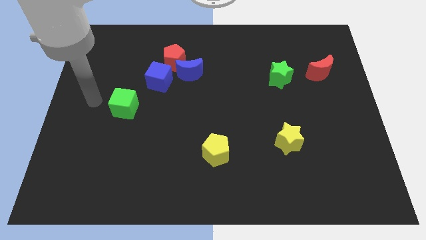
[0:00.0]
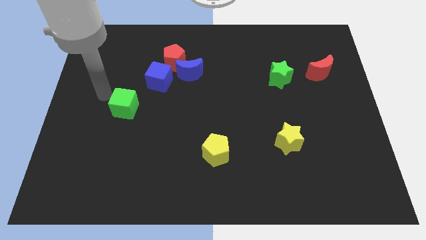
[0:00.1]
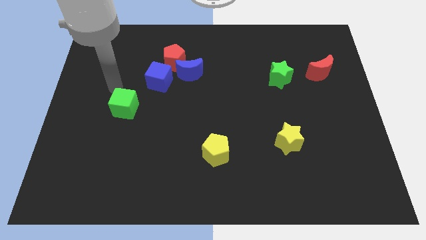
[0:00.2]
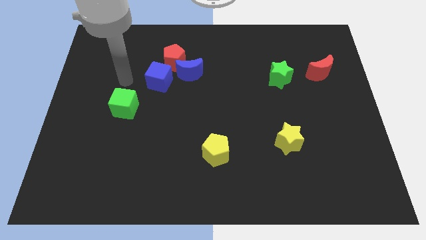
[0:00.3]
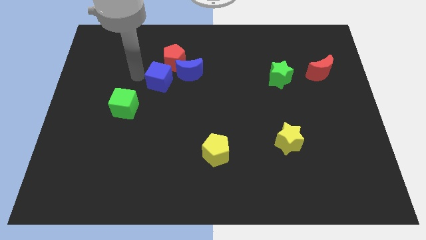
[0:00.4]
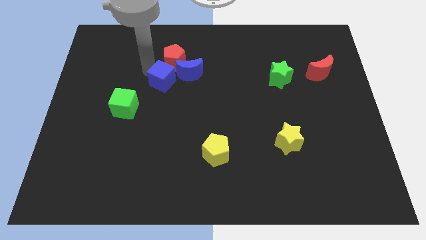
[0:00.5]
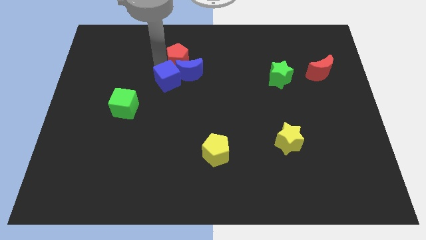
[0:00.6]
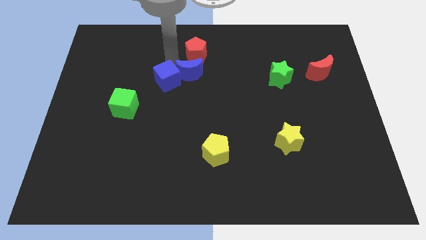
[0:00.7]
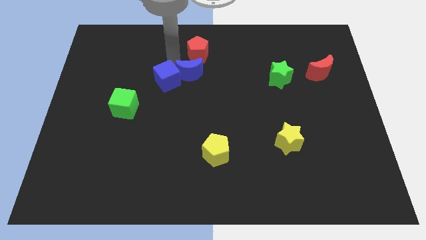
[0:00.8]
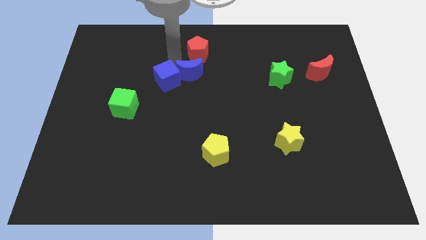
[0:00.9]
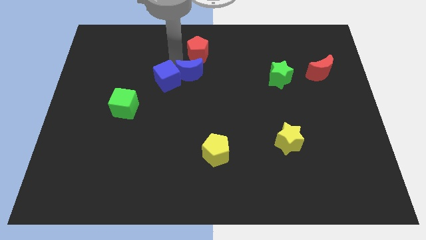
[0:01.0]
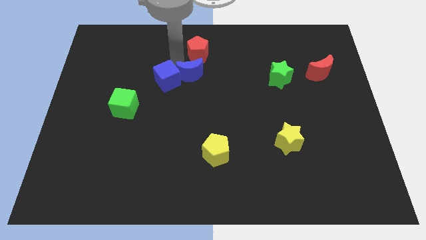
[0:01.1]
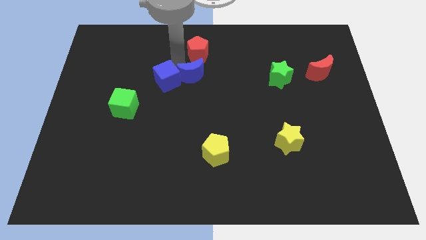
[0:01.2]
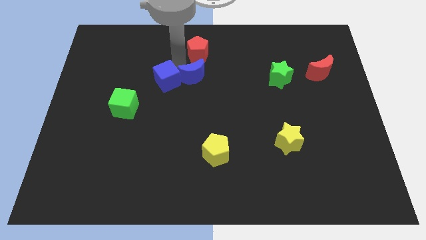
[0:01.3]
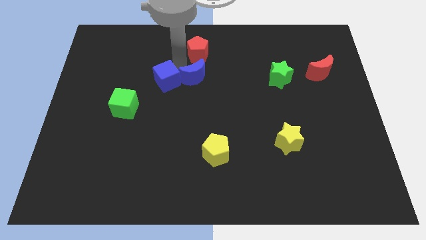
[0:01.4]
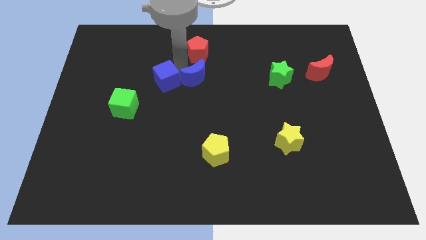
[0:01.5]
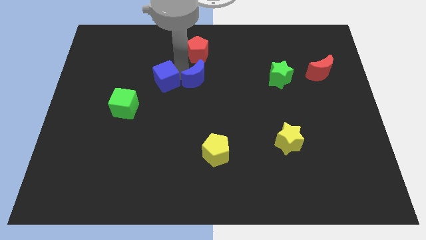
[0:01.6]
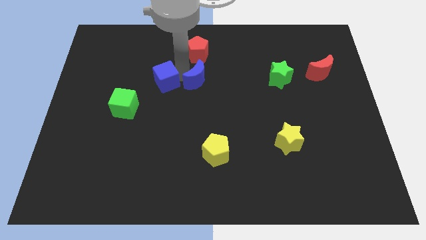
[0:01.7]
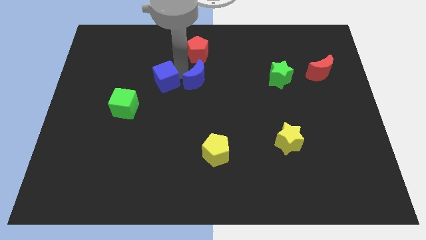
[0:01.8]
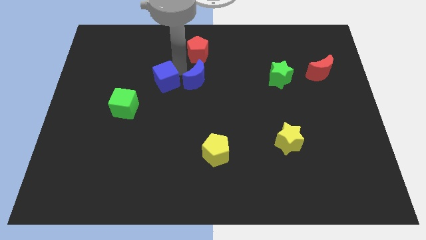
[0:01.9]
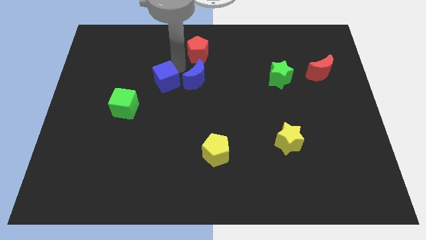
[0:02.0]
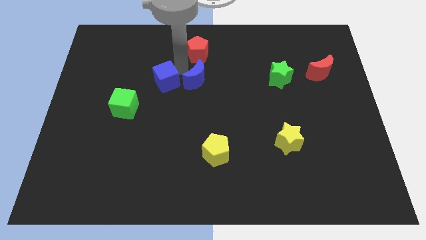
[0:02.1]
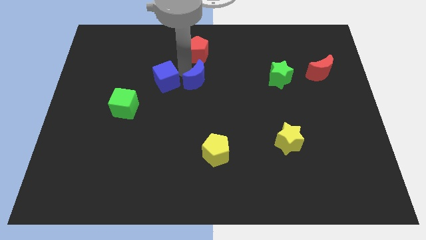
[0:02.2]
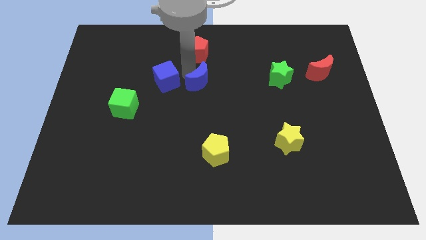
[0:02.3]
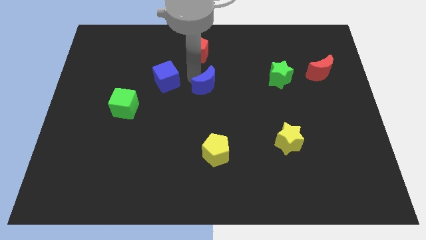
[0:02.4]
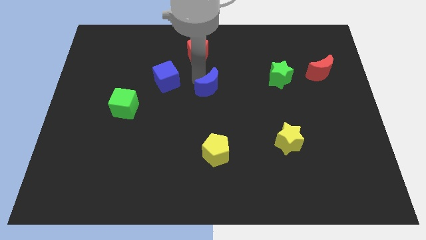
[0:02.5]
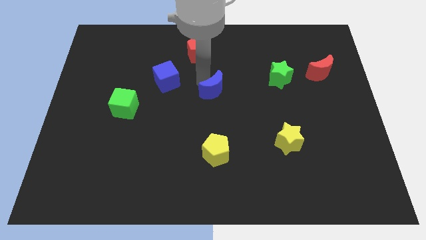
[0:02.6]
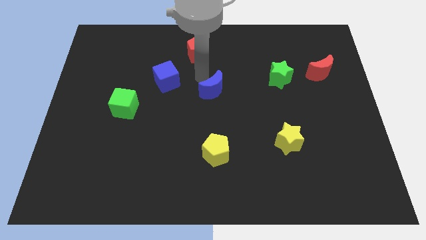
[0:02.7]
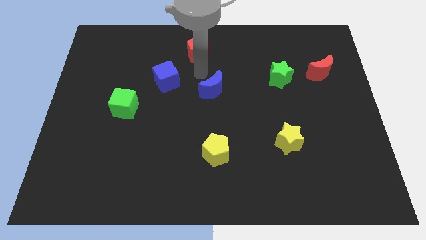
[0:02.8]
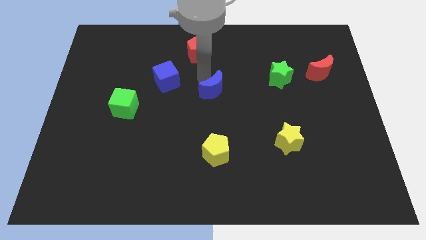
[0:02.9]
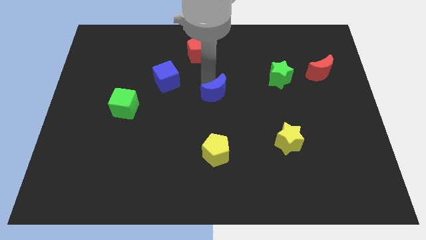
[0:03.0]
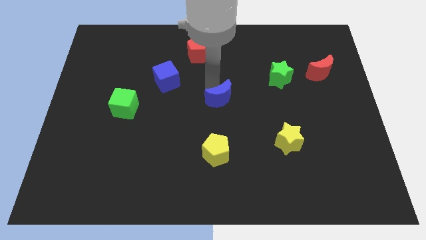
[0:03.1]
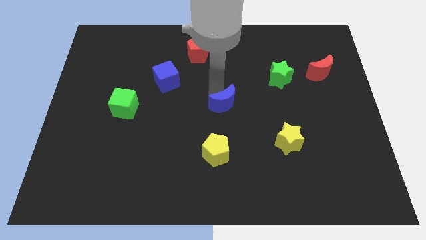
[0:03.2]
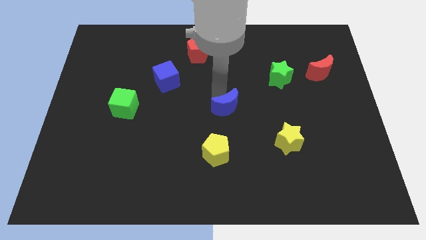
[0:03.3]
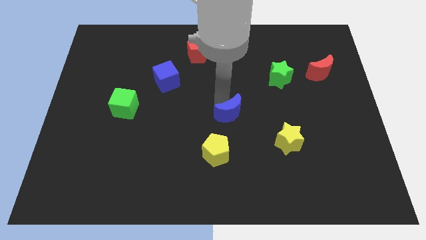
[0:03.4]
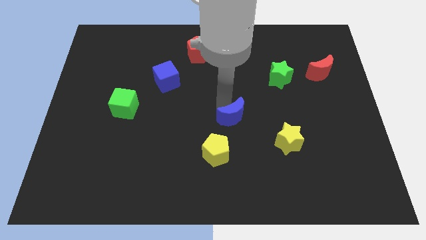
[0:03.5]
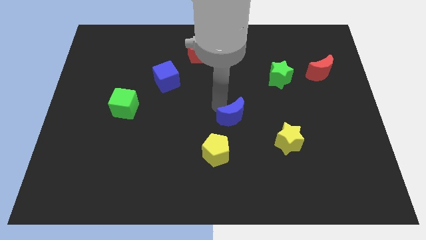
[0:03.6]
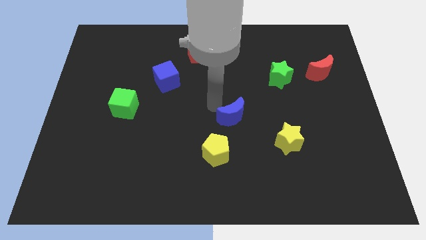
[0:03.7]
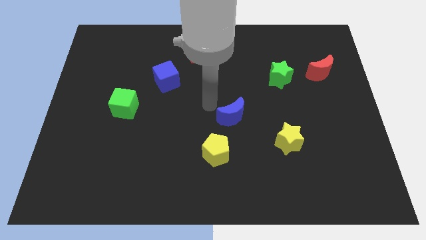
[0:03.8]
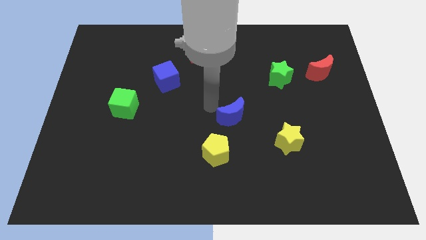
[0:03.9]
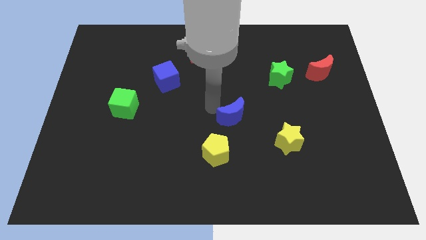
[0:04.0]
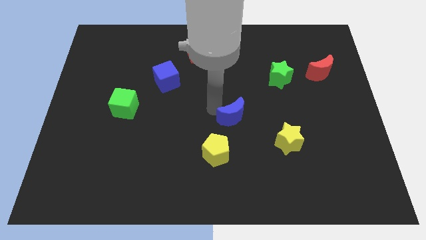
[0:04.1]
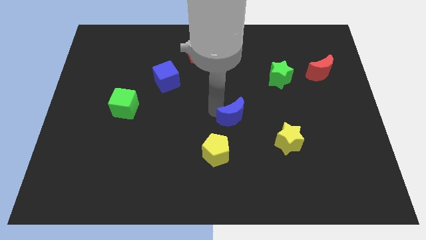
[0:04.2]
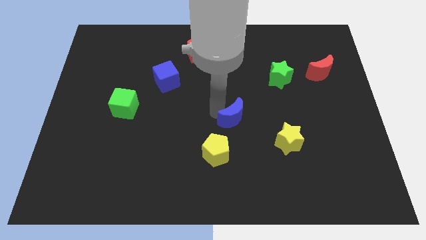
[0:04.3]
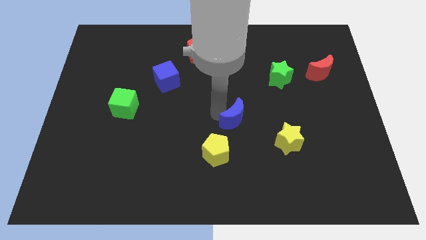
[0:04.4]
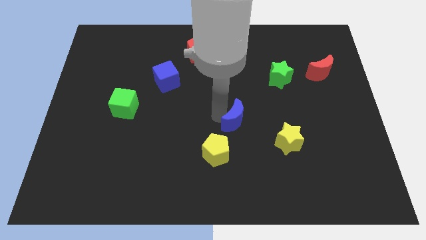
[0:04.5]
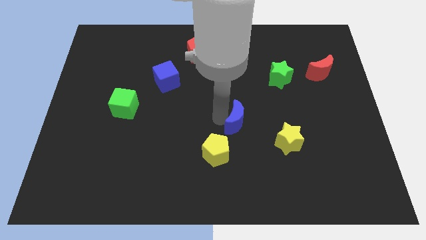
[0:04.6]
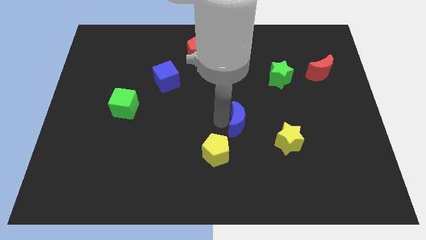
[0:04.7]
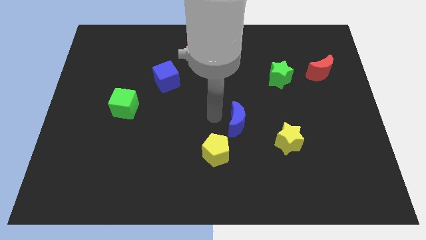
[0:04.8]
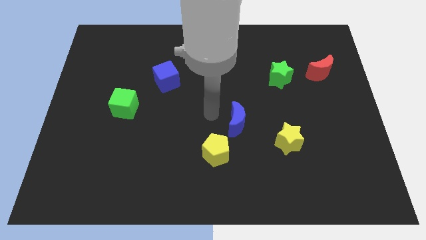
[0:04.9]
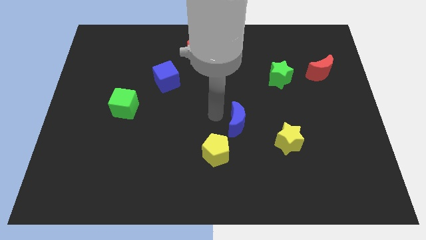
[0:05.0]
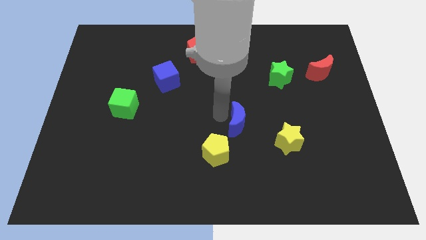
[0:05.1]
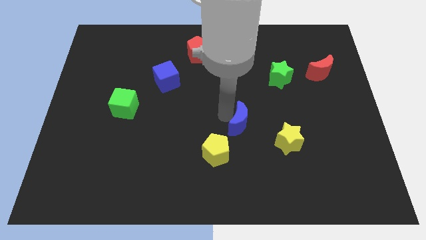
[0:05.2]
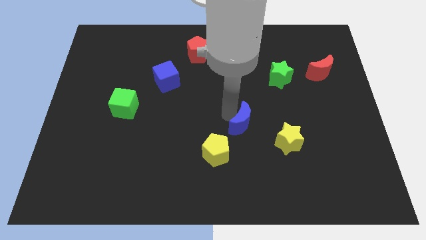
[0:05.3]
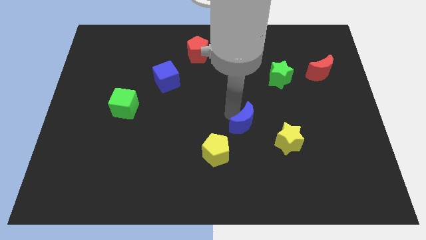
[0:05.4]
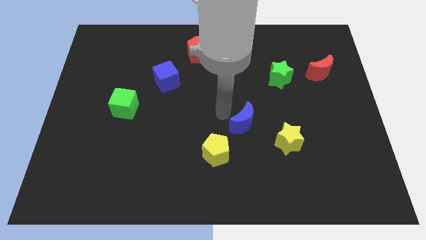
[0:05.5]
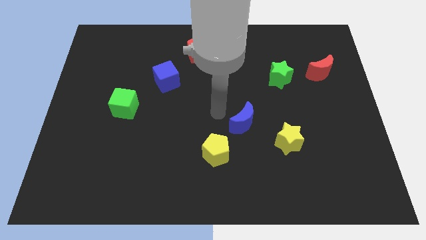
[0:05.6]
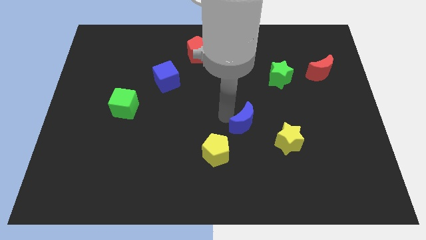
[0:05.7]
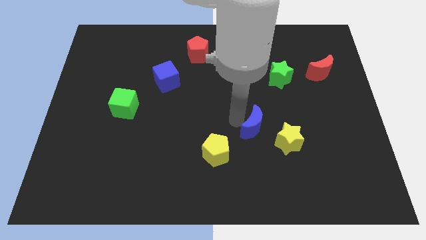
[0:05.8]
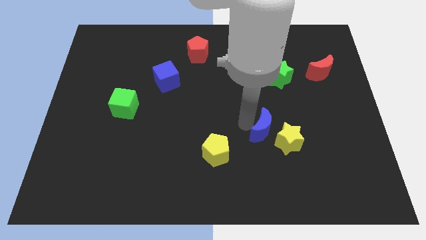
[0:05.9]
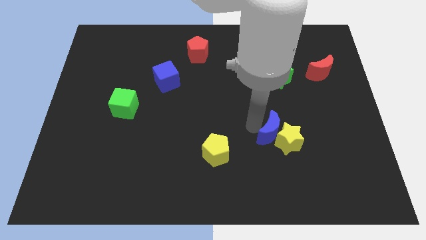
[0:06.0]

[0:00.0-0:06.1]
put the blue moon towards the yellow star
